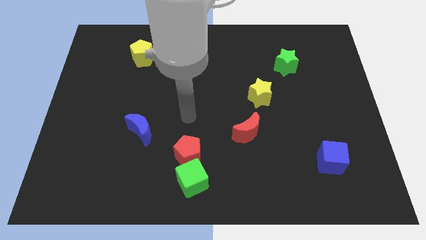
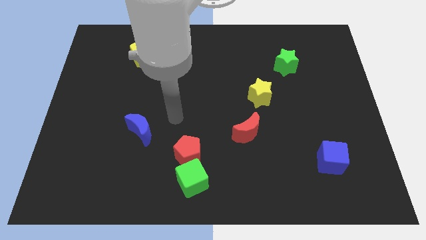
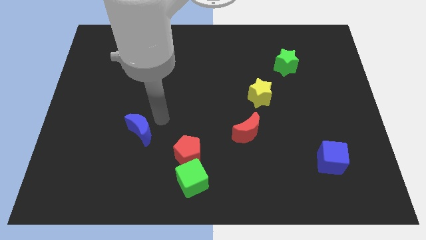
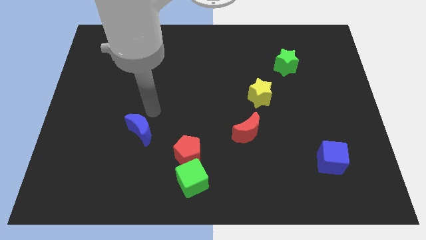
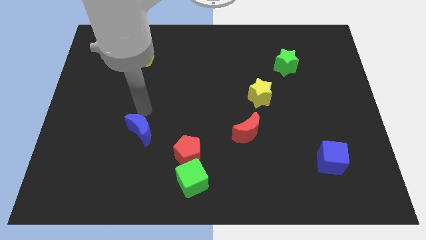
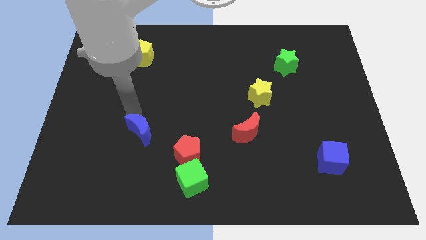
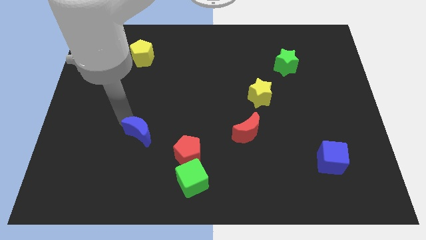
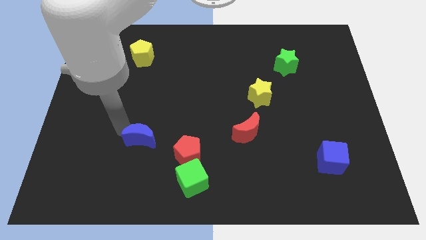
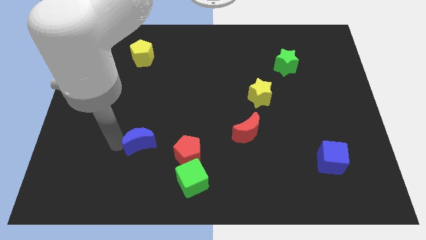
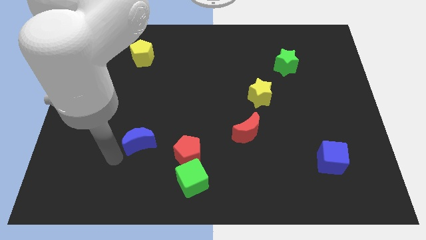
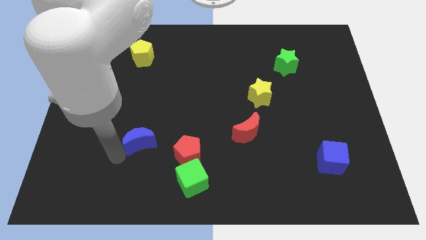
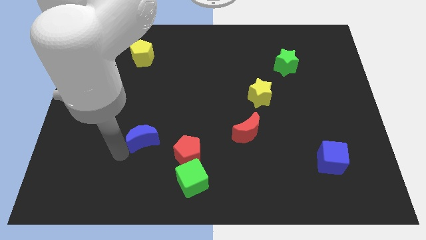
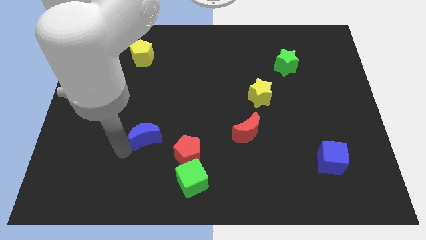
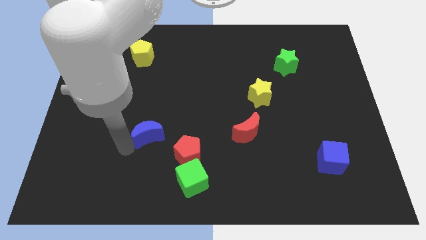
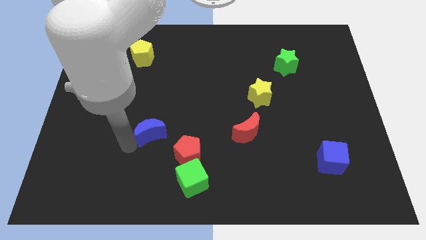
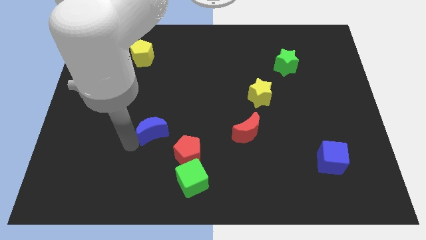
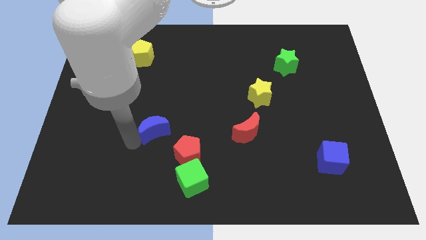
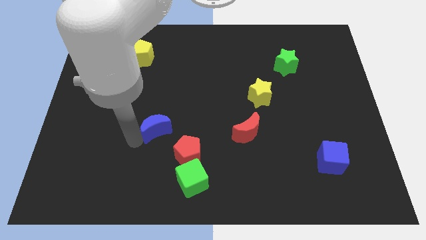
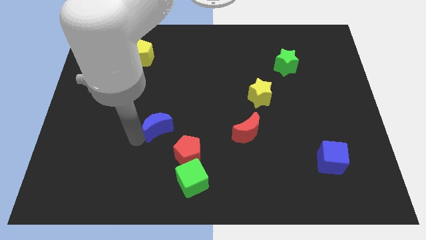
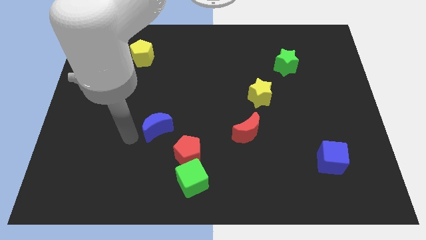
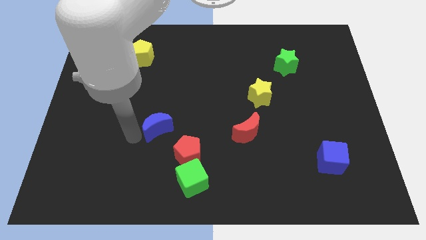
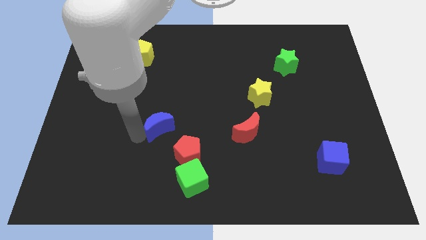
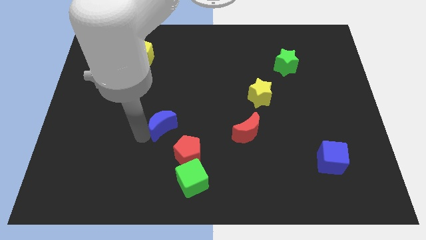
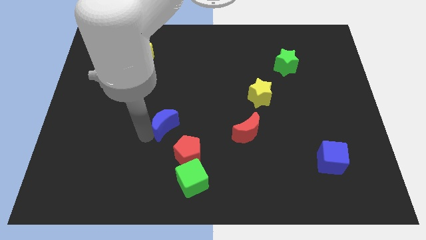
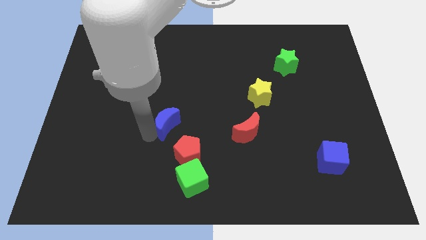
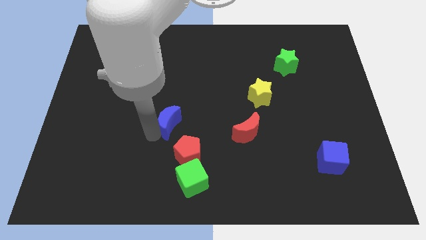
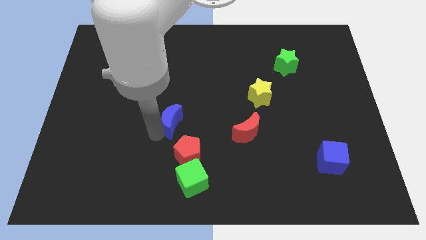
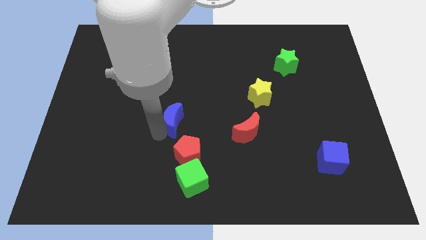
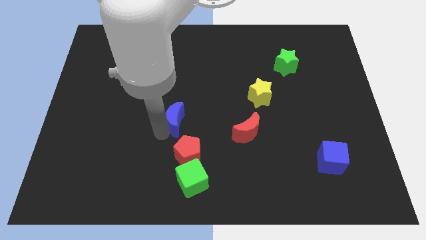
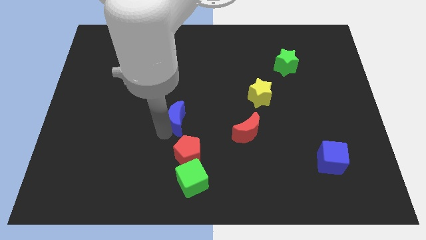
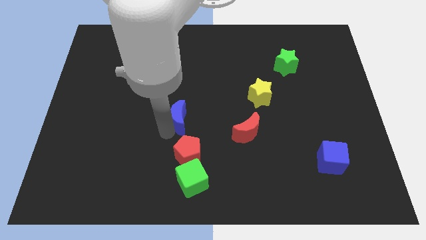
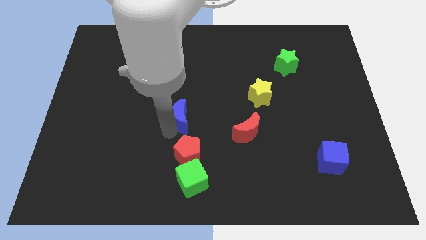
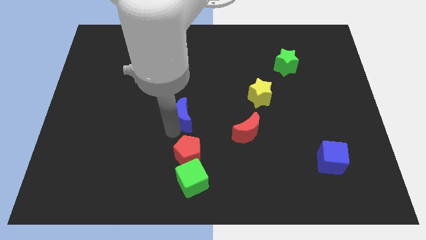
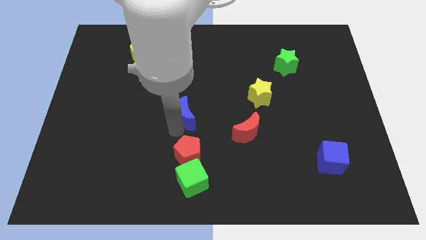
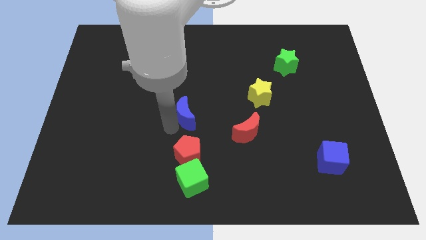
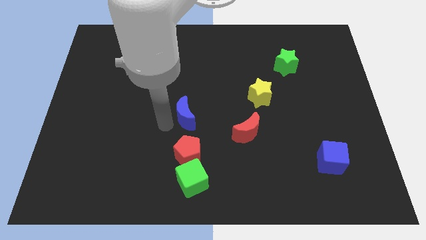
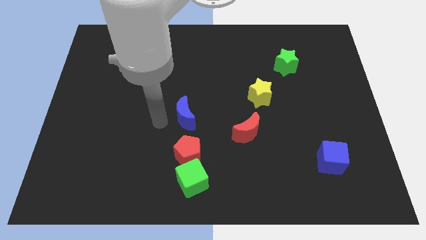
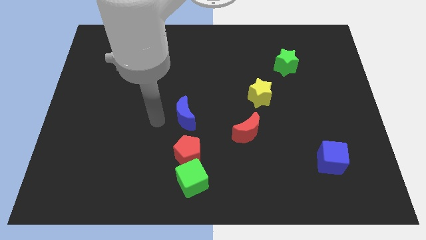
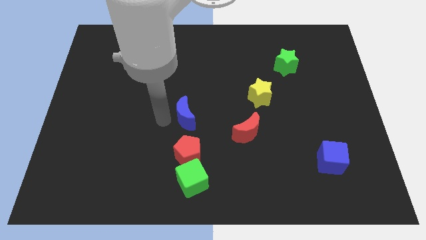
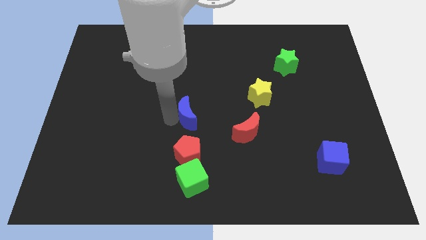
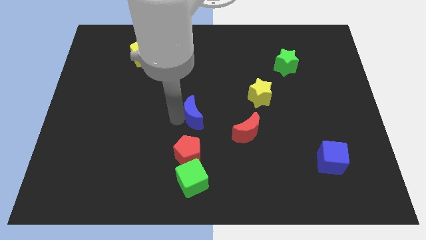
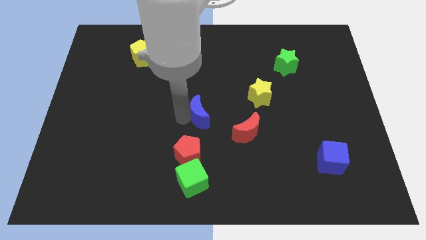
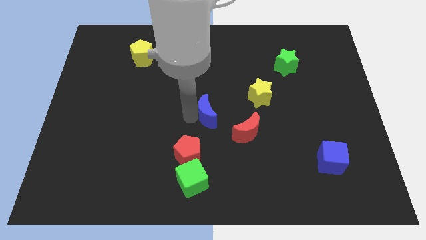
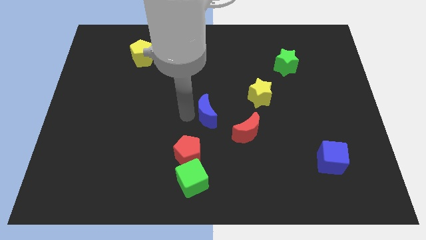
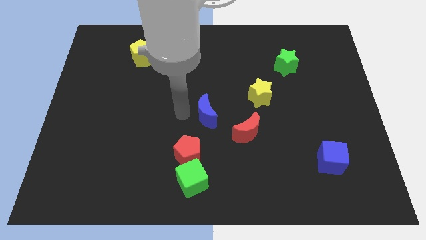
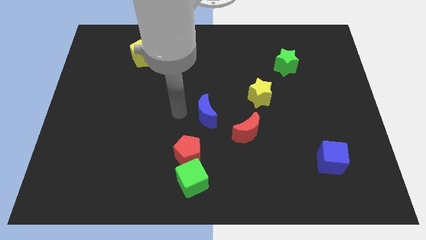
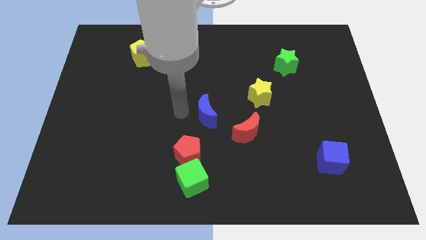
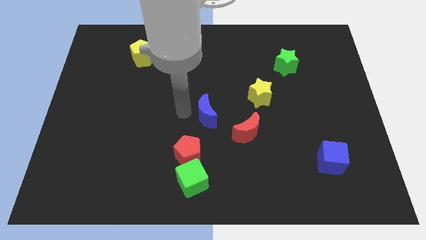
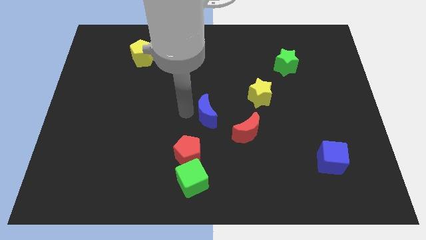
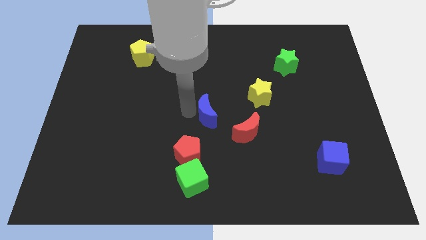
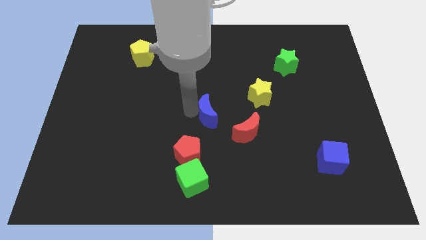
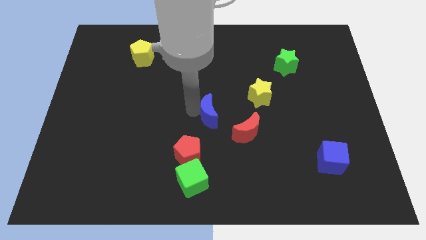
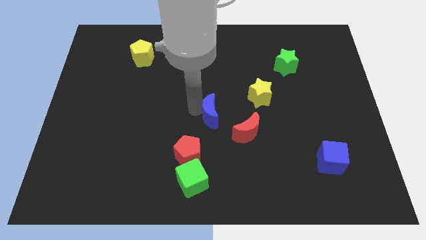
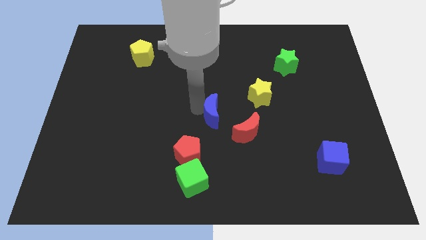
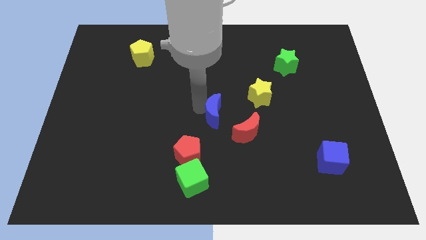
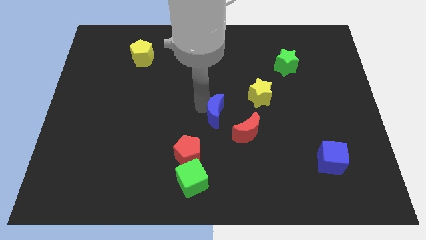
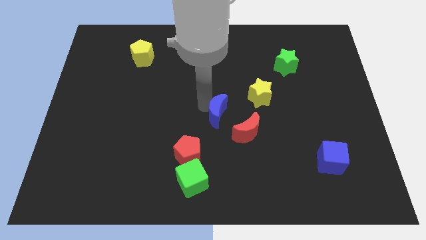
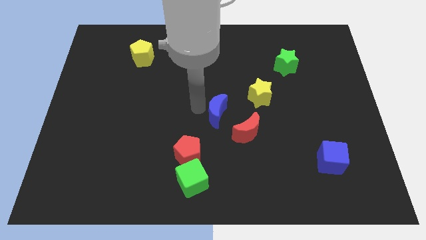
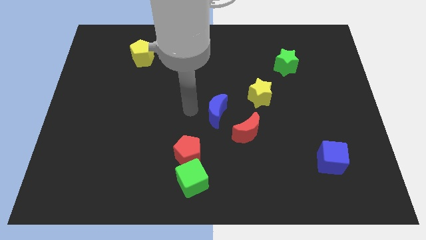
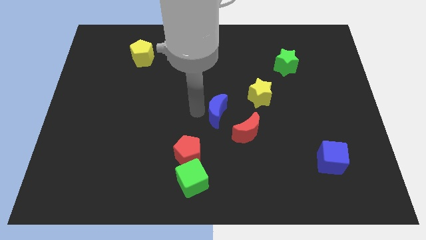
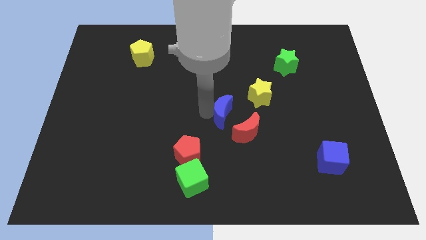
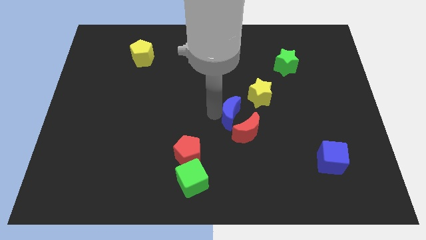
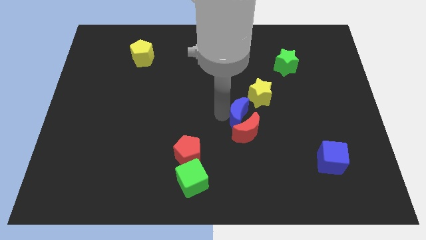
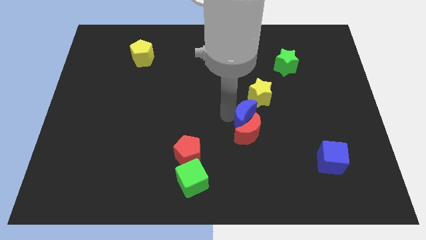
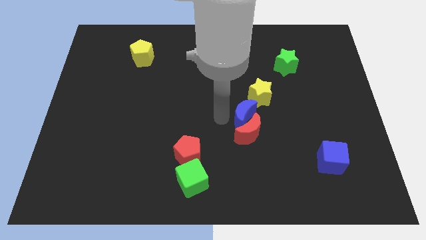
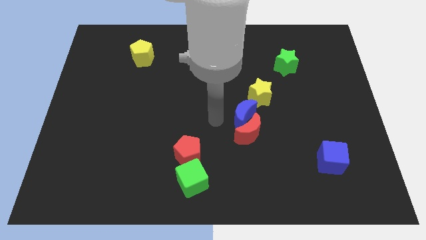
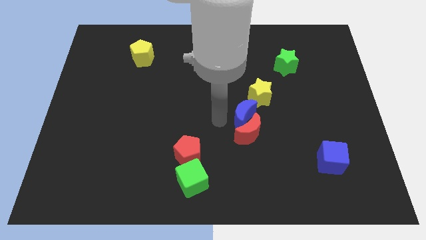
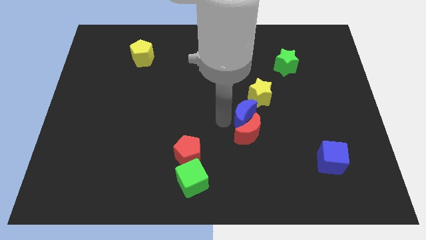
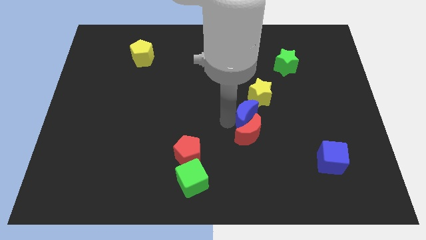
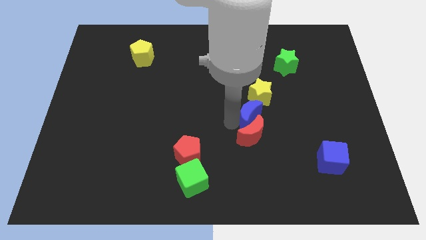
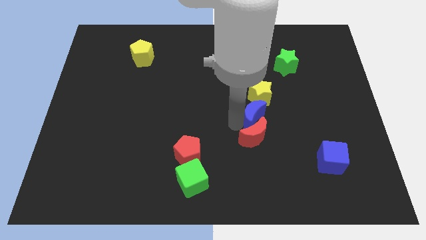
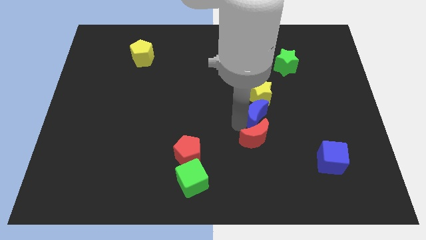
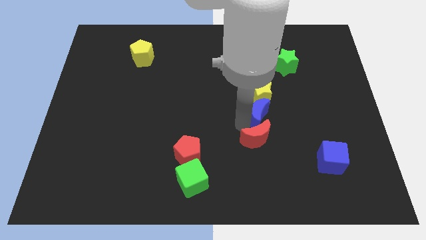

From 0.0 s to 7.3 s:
put the blue moon diagonally down and to the right of the yellow star
